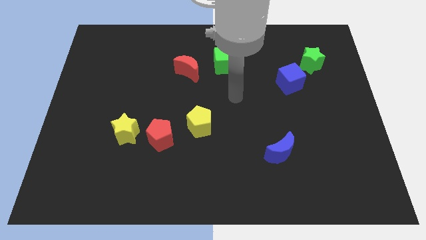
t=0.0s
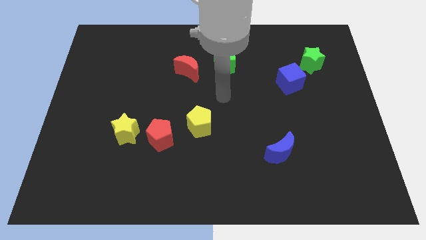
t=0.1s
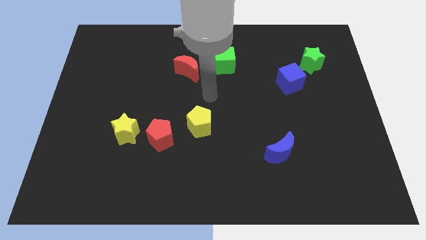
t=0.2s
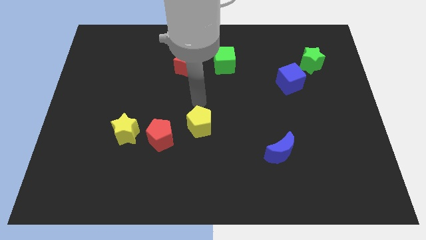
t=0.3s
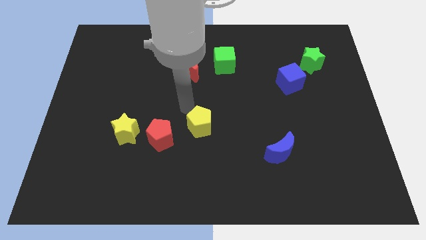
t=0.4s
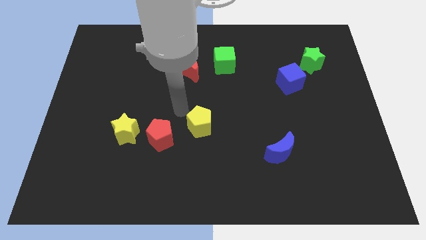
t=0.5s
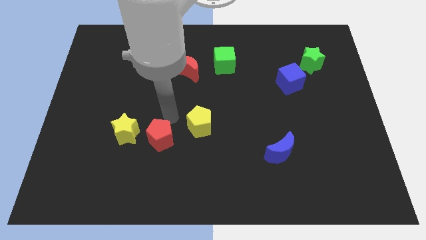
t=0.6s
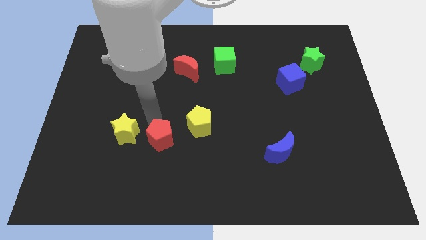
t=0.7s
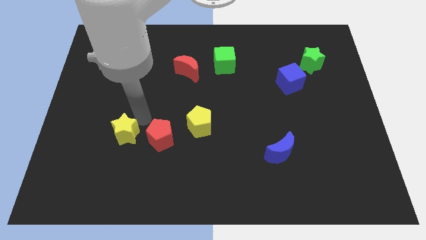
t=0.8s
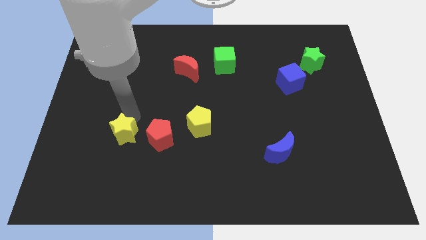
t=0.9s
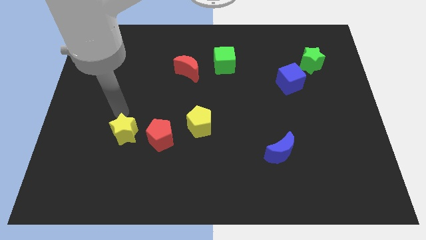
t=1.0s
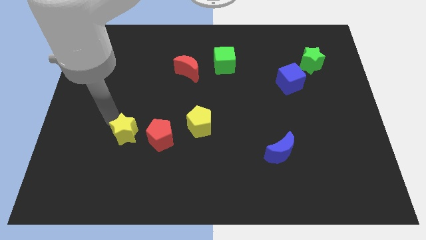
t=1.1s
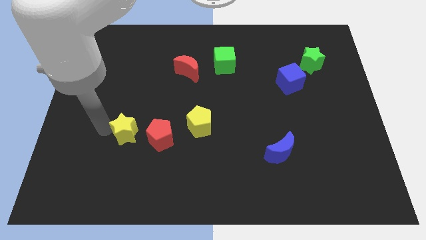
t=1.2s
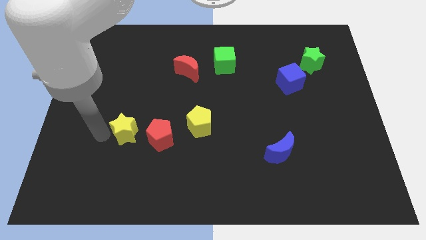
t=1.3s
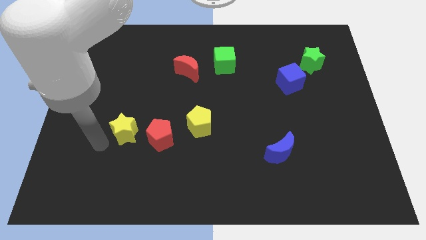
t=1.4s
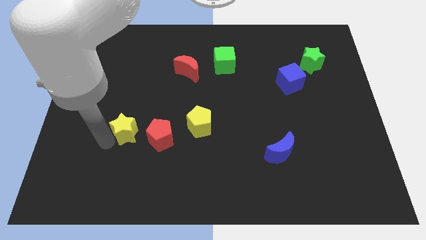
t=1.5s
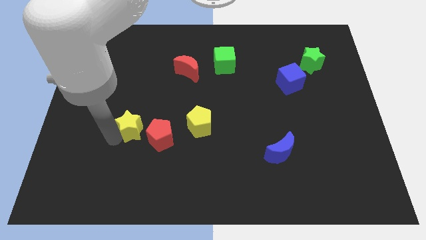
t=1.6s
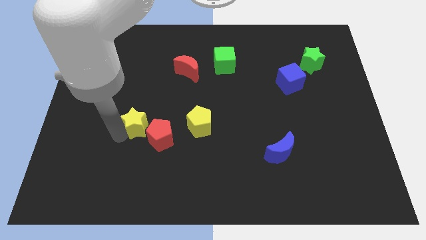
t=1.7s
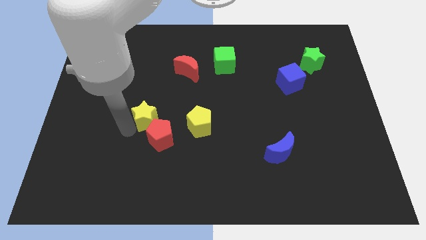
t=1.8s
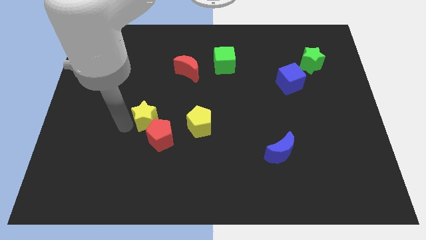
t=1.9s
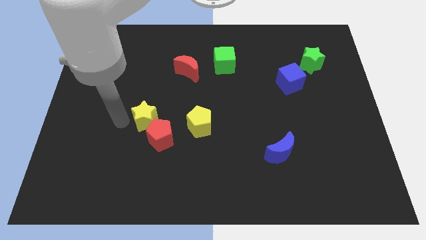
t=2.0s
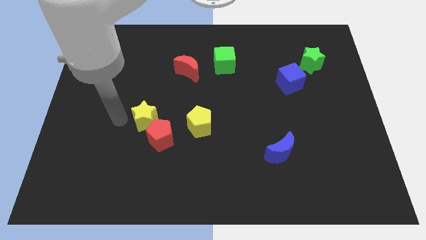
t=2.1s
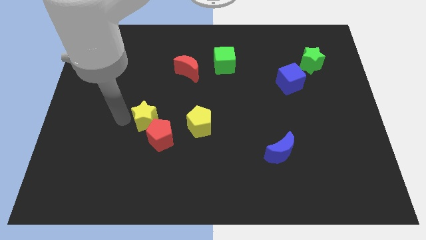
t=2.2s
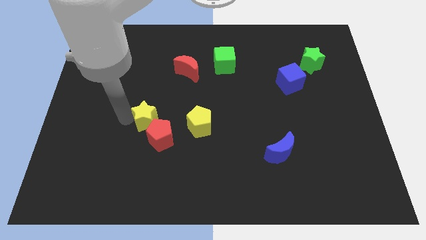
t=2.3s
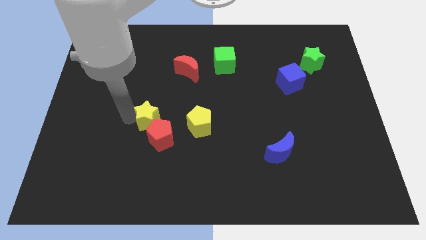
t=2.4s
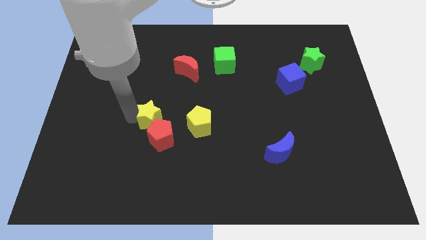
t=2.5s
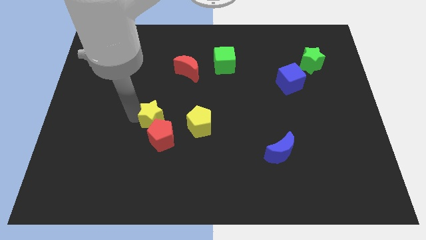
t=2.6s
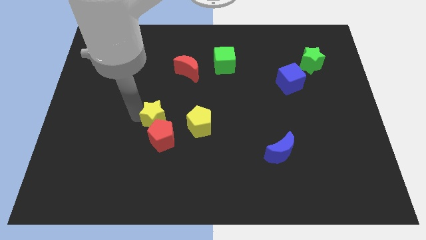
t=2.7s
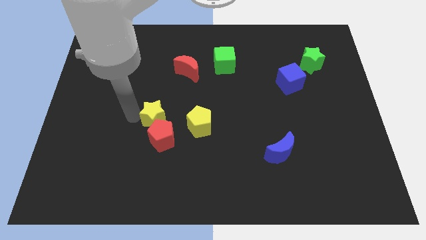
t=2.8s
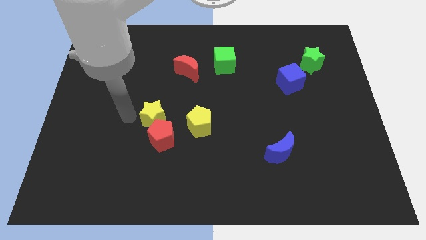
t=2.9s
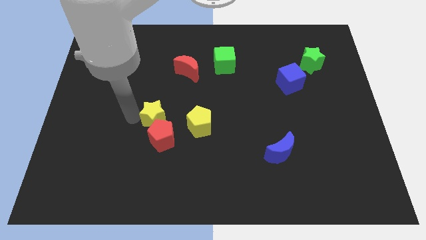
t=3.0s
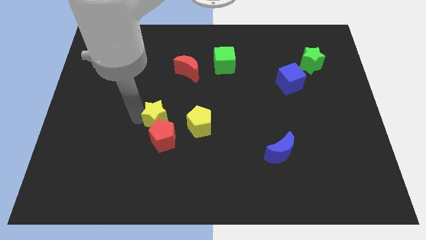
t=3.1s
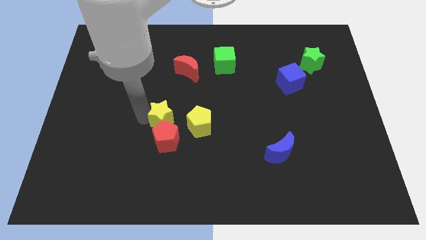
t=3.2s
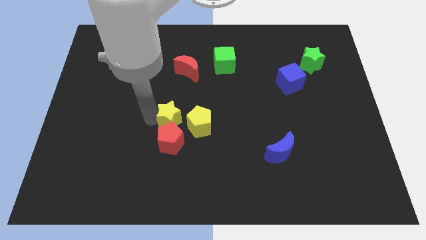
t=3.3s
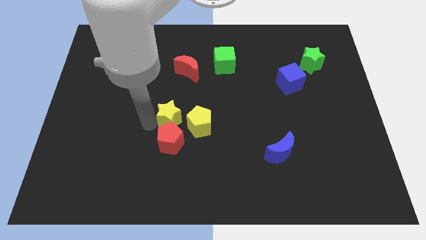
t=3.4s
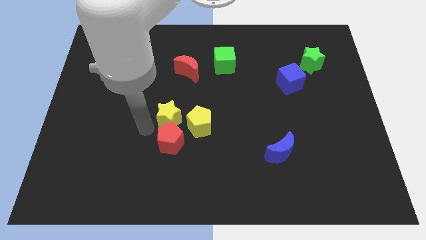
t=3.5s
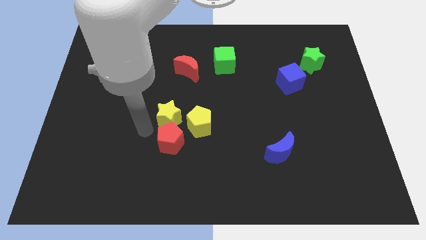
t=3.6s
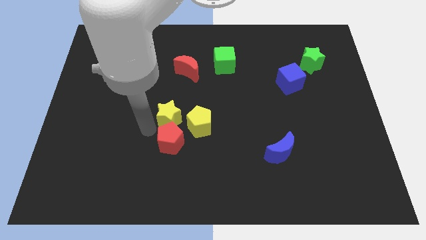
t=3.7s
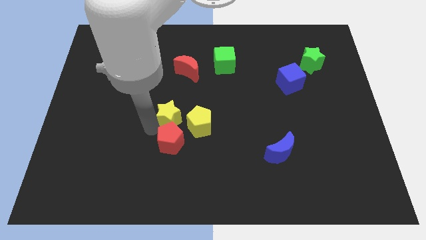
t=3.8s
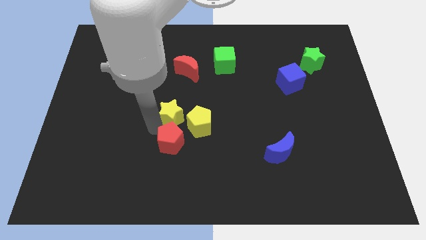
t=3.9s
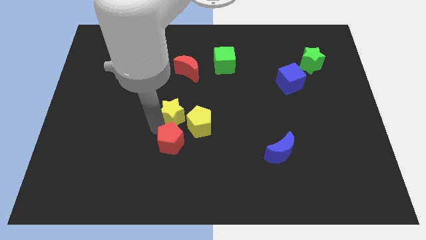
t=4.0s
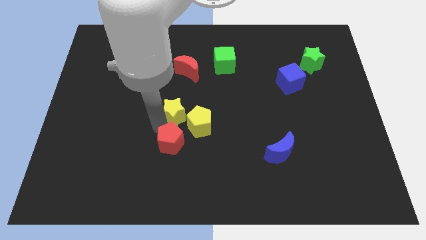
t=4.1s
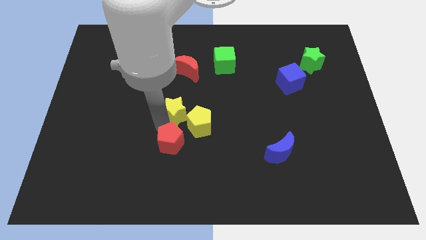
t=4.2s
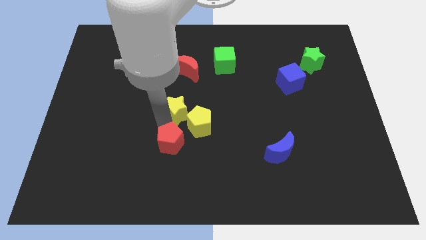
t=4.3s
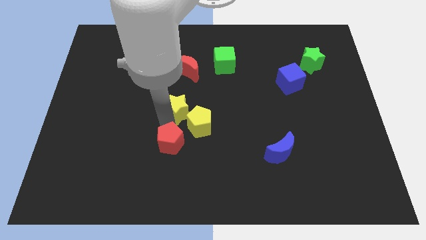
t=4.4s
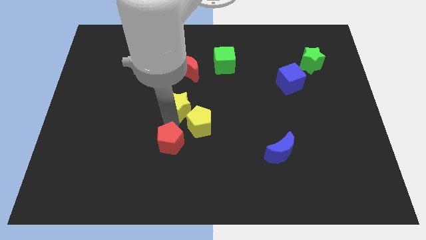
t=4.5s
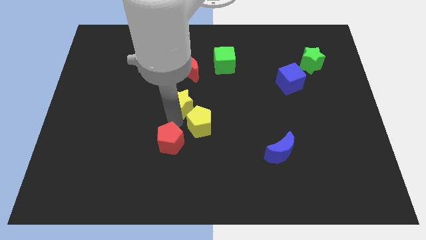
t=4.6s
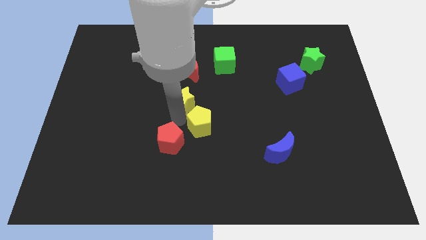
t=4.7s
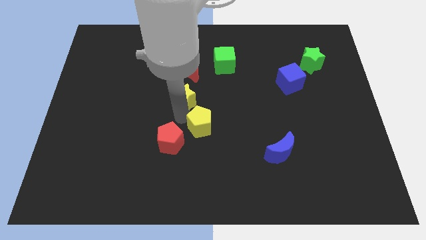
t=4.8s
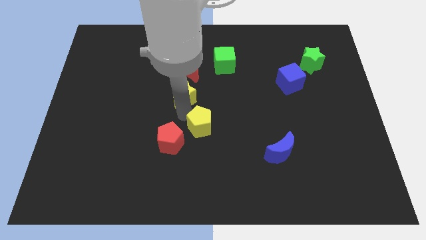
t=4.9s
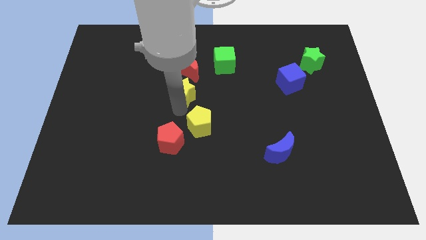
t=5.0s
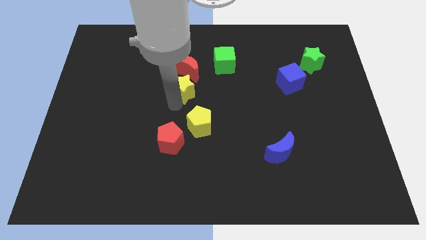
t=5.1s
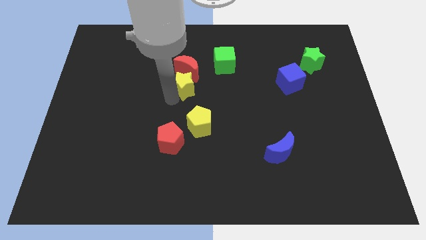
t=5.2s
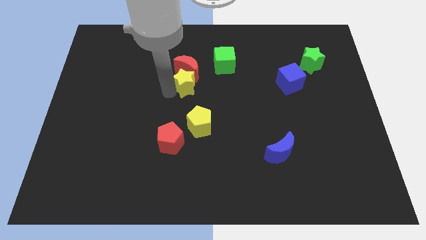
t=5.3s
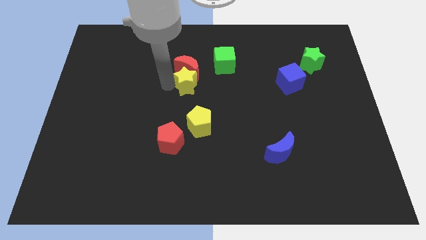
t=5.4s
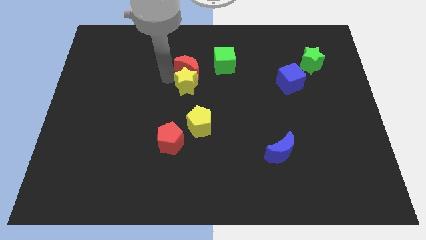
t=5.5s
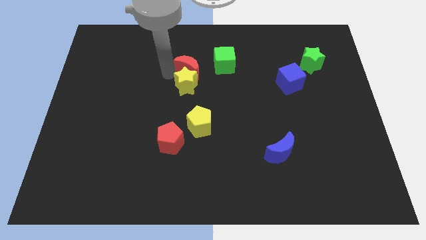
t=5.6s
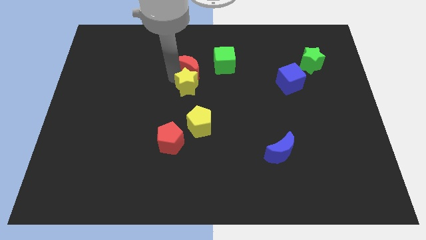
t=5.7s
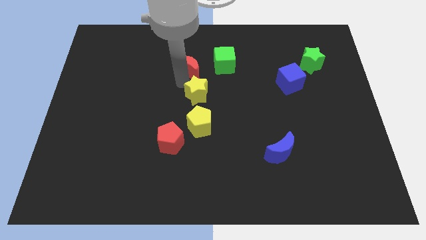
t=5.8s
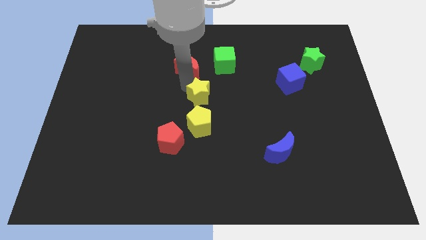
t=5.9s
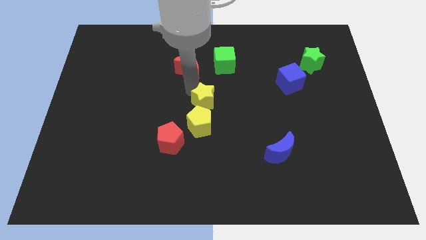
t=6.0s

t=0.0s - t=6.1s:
move the yellow star to the top right side of the yellow pentagon
